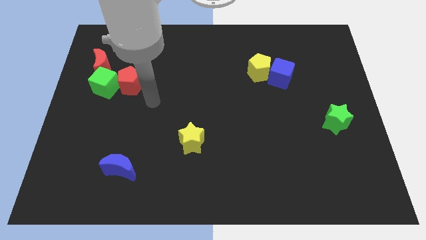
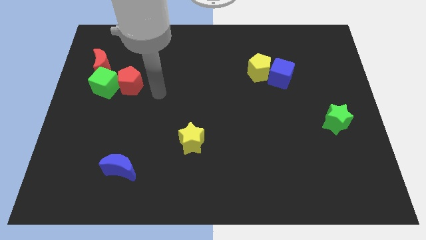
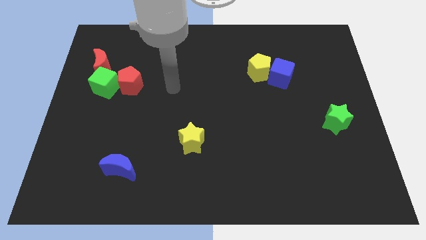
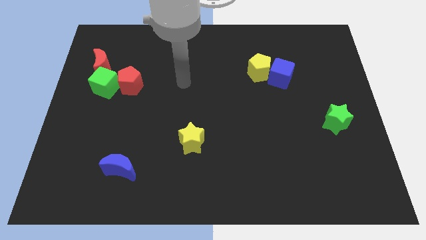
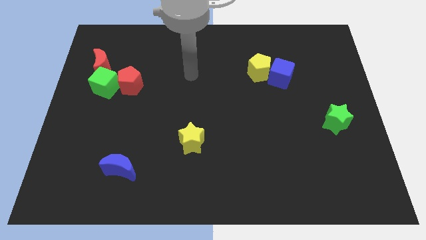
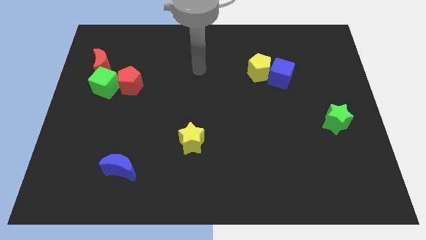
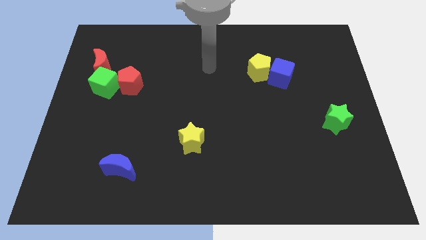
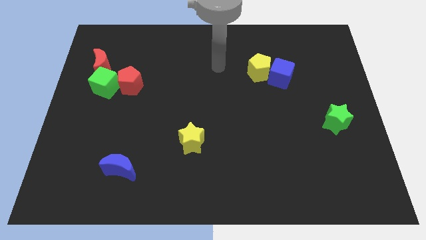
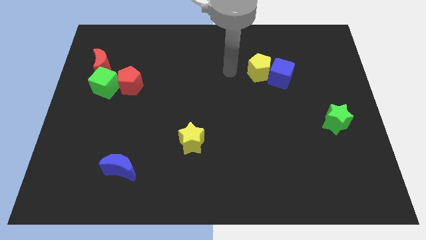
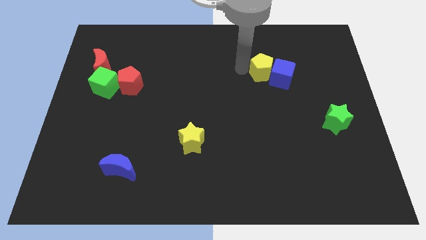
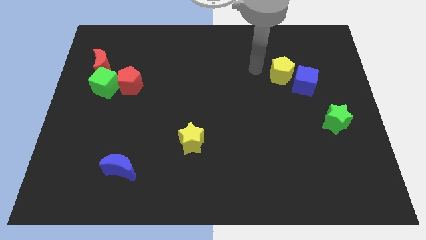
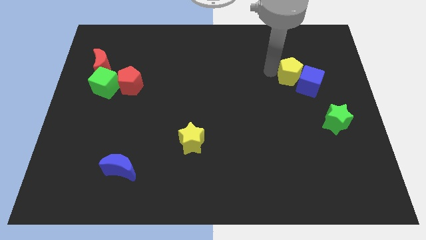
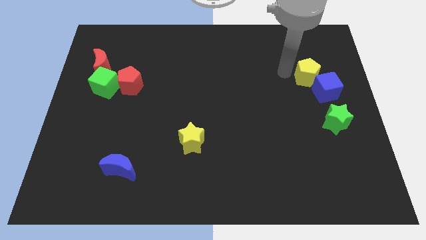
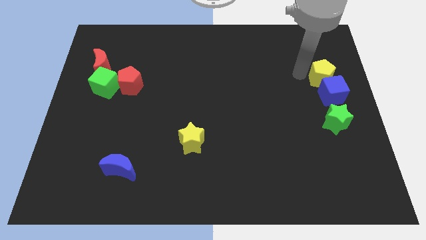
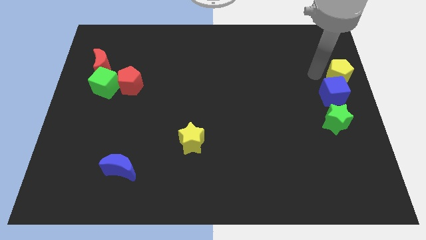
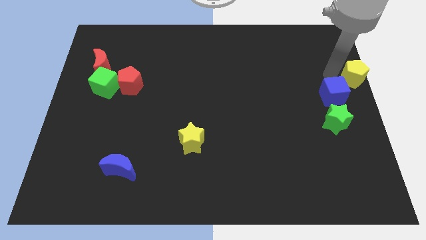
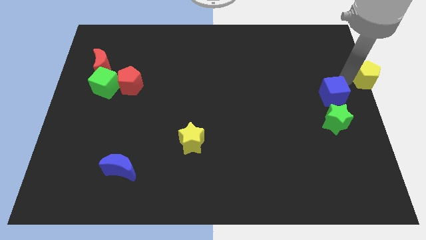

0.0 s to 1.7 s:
move the blue cube away from the yellow pentagon

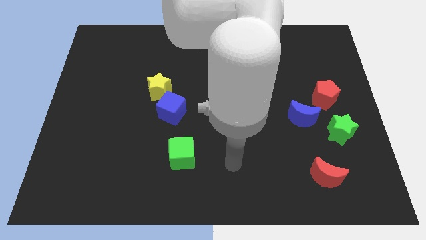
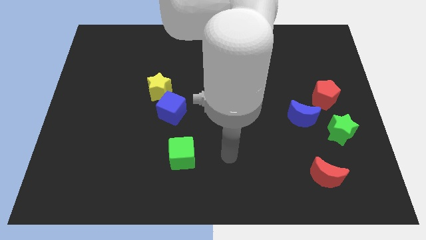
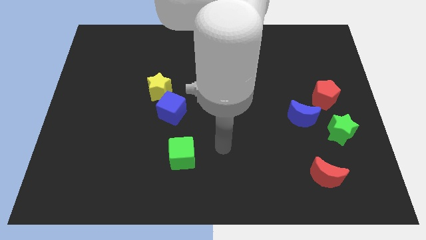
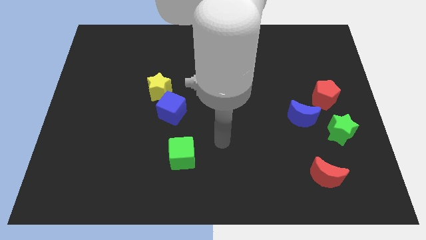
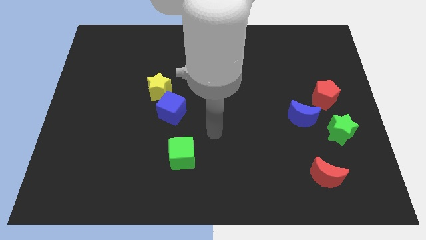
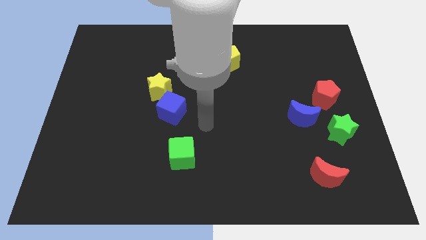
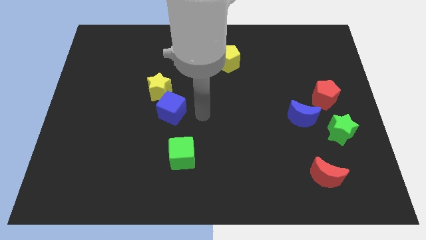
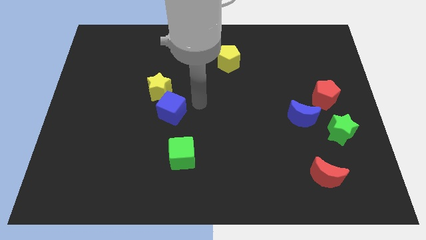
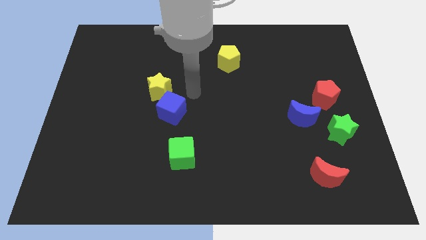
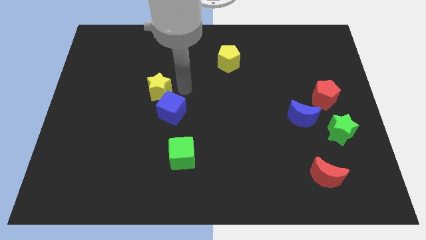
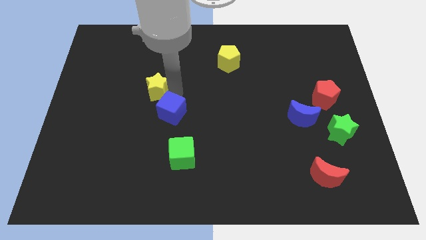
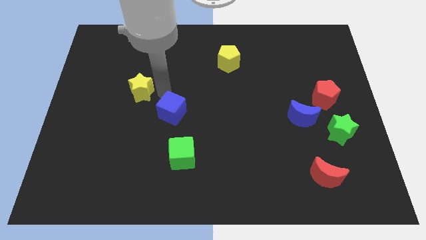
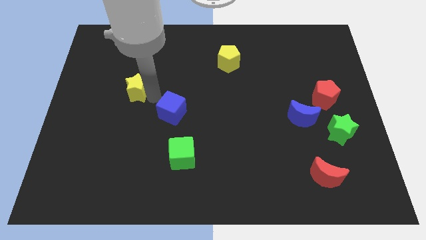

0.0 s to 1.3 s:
pull the blue cube apart from the yellow star

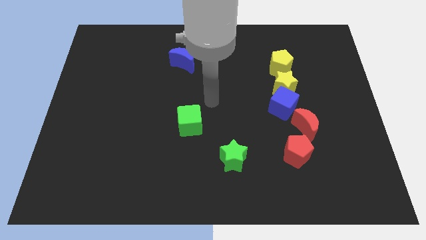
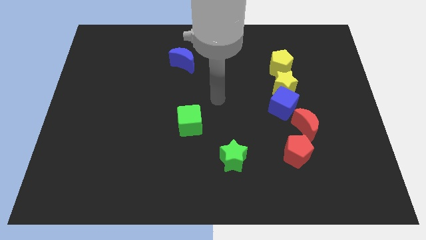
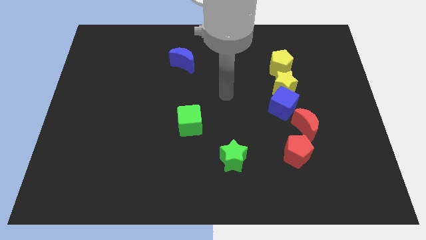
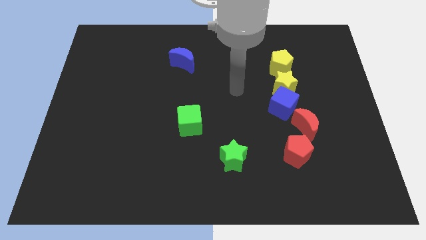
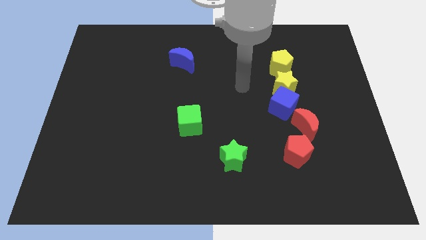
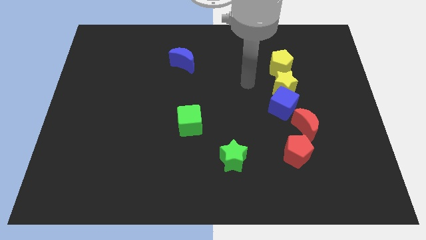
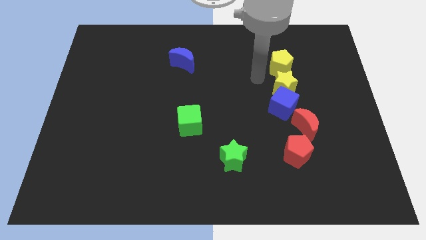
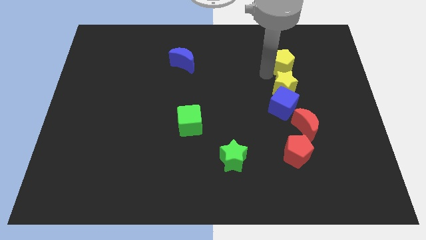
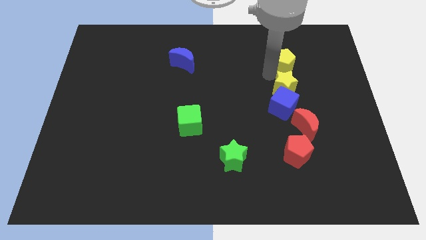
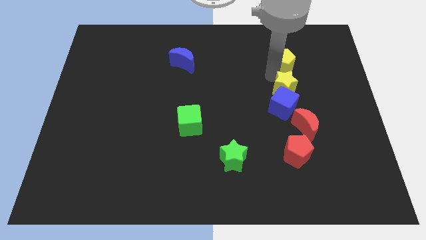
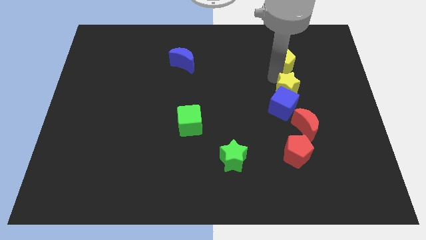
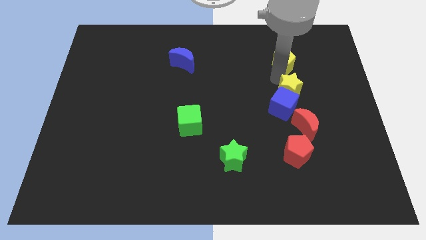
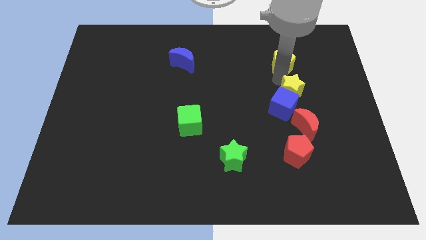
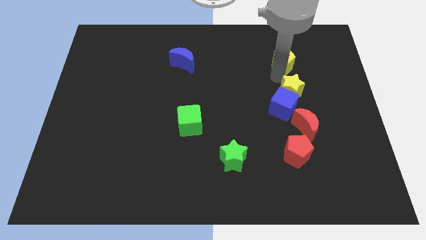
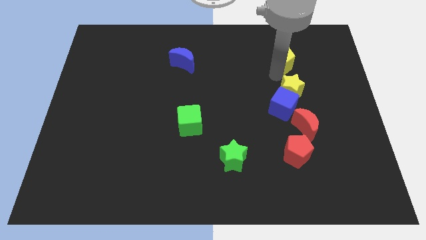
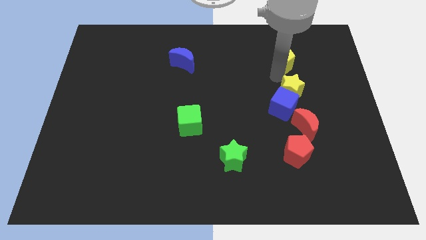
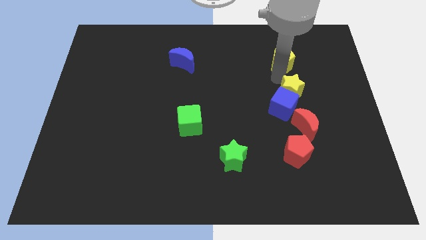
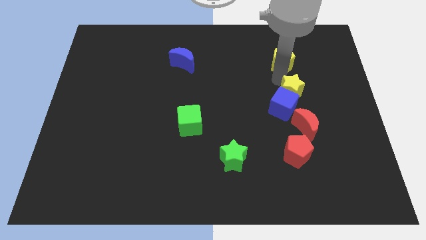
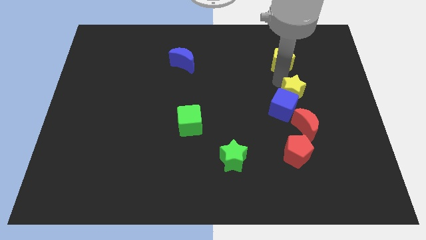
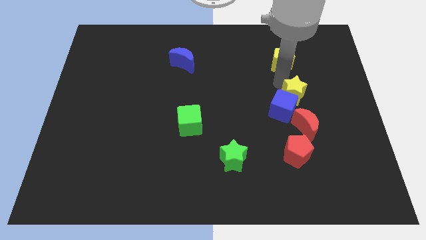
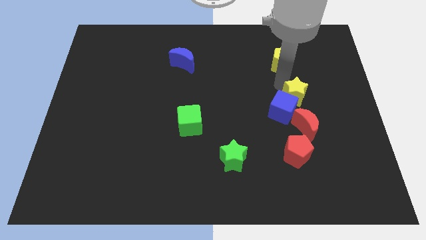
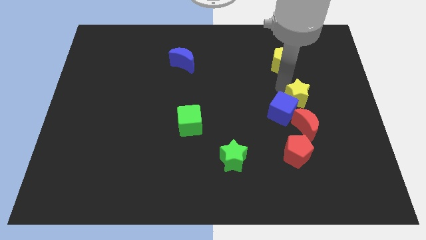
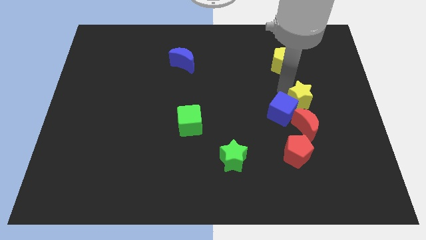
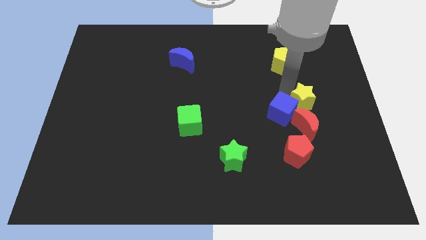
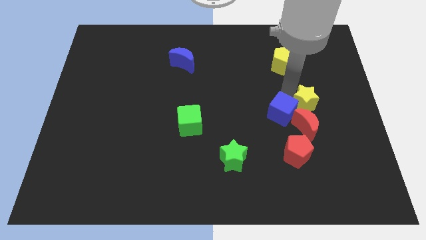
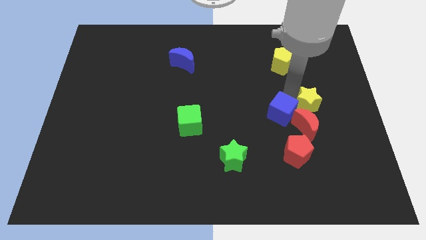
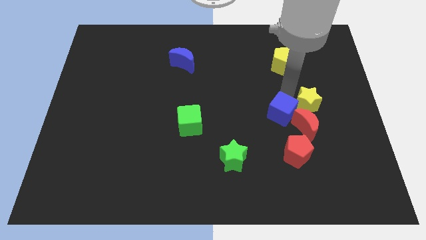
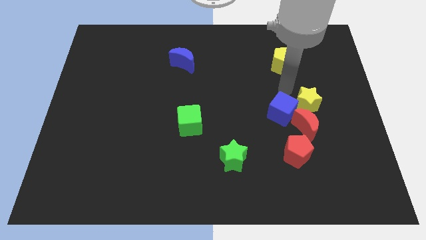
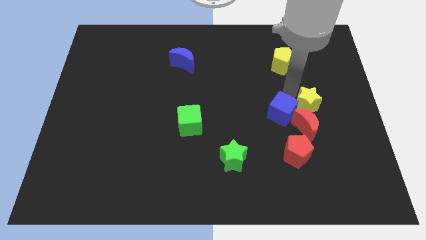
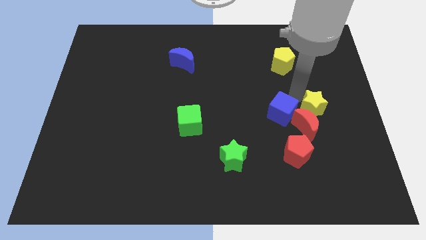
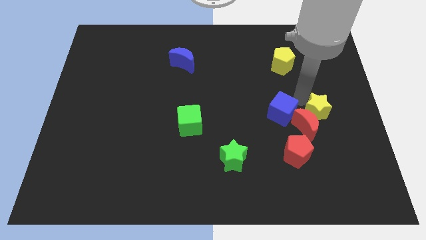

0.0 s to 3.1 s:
move the yellow star away from the blue cube and yellow pentagon

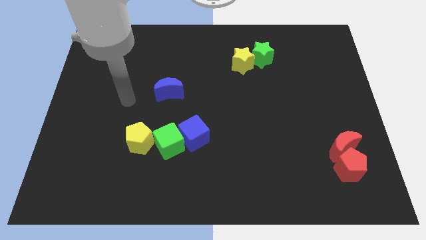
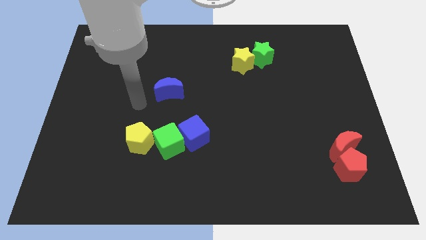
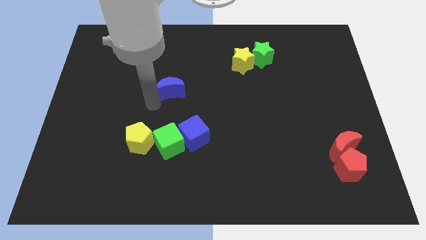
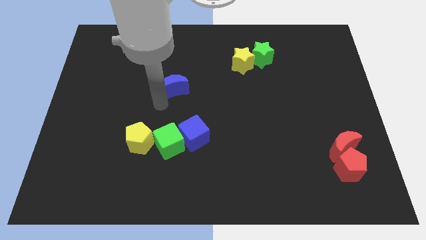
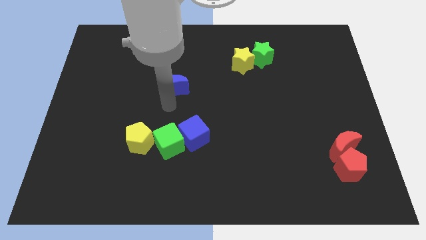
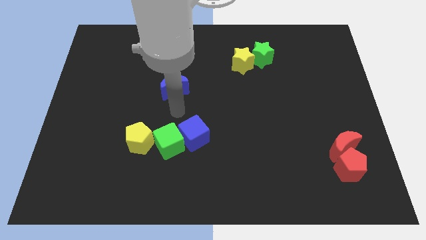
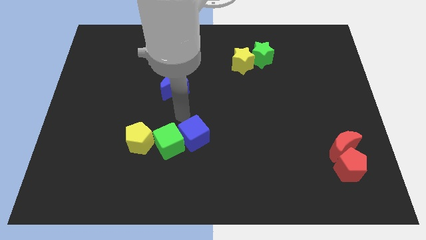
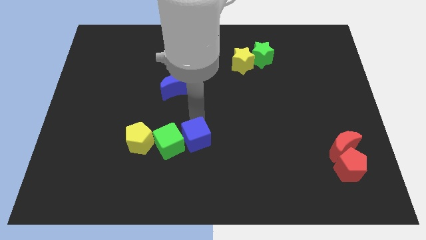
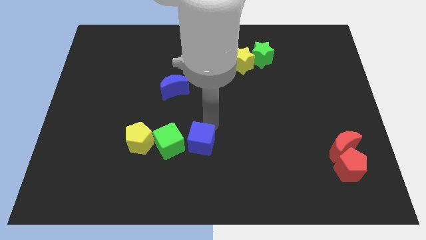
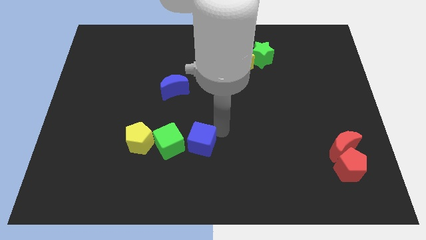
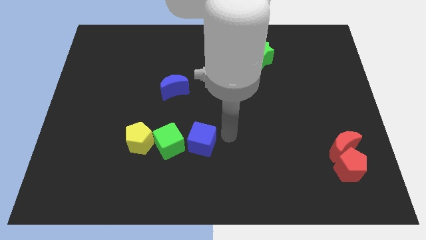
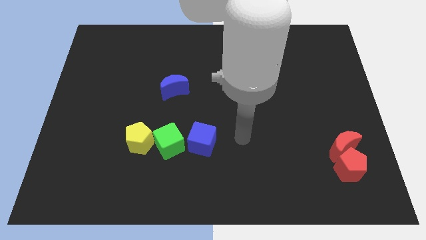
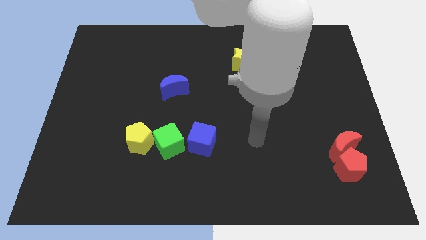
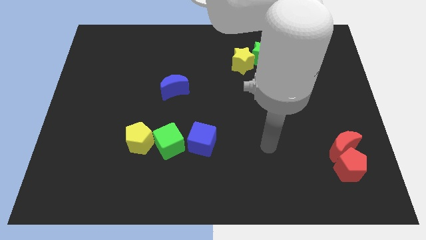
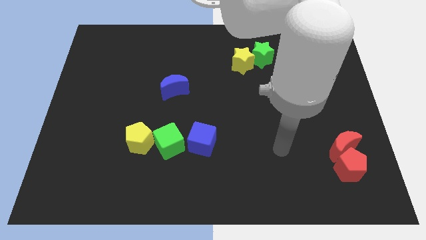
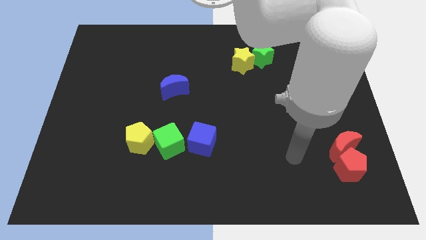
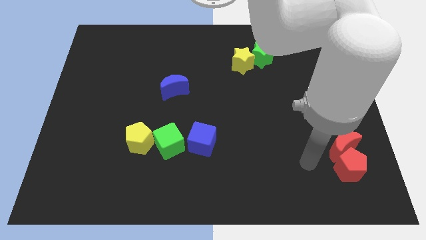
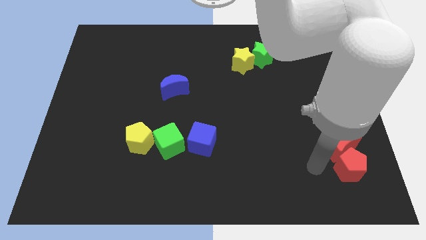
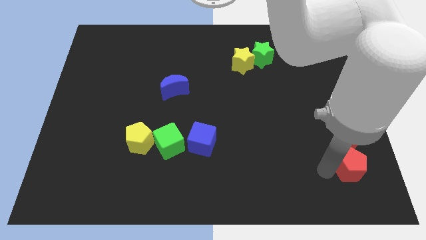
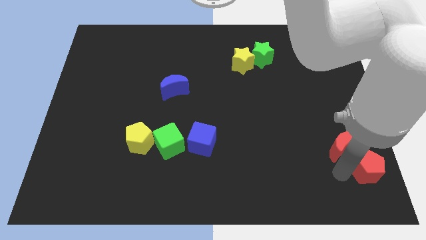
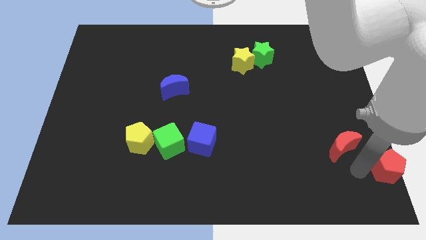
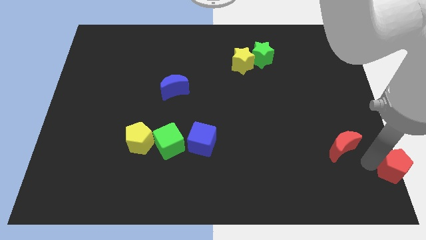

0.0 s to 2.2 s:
pull the red moon apart from the red pentagon

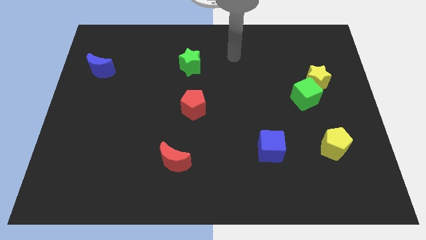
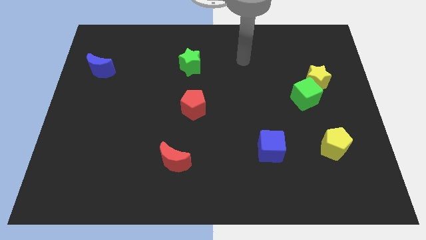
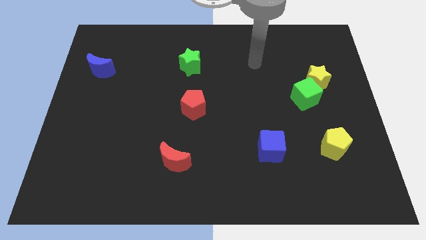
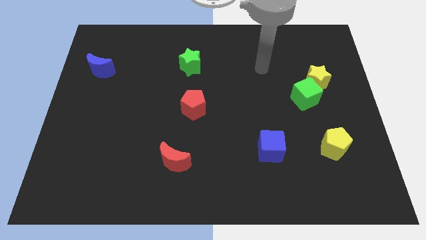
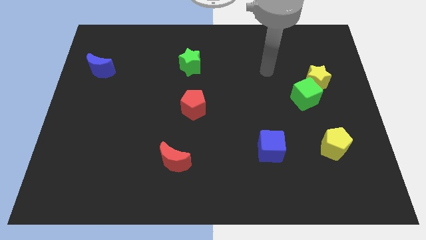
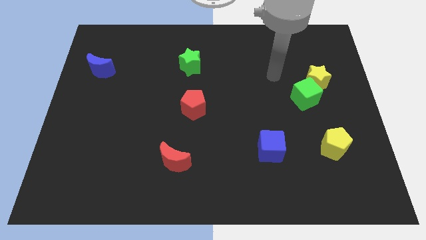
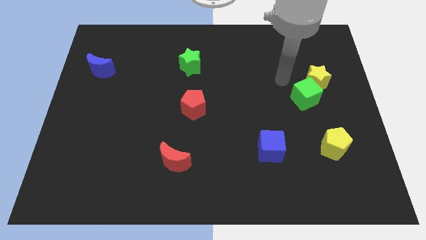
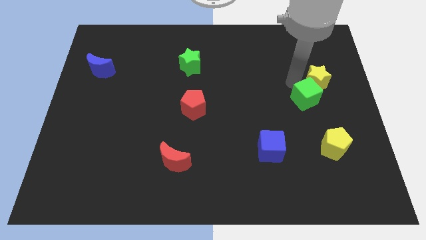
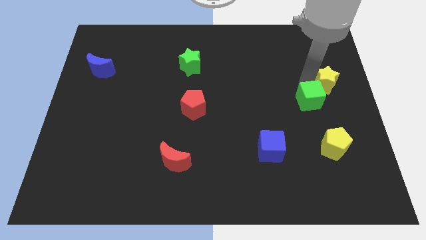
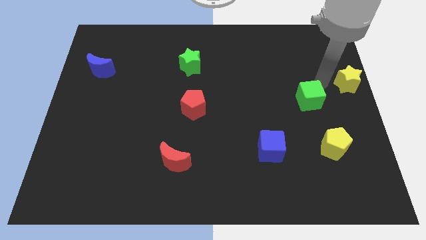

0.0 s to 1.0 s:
pull the green cube apart from the yellow star
